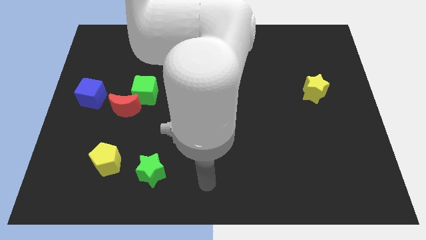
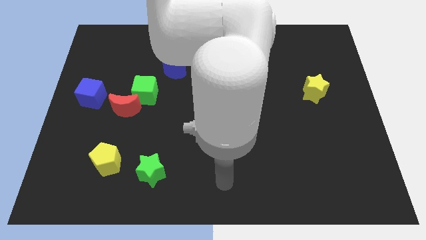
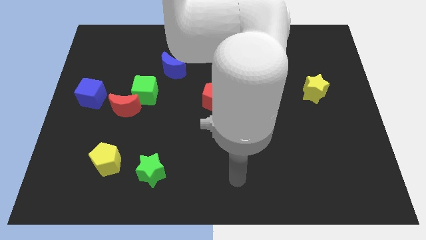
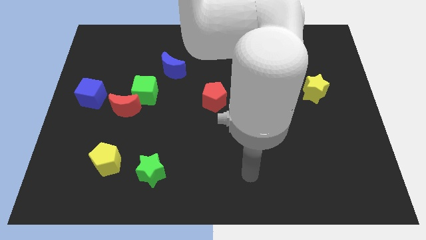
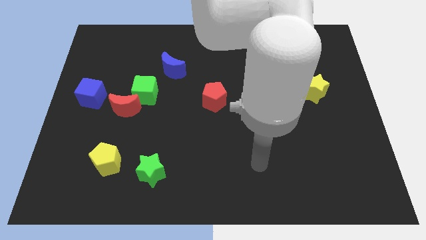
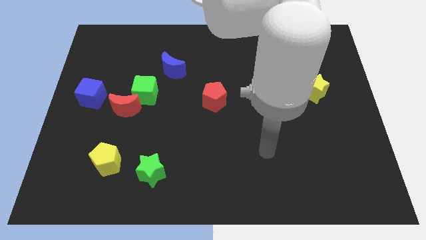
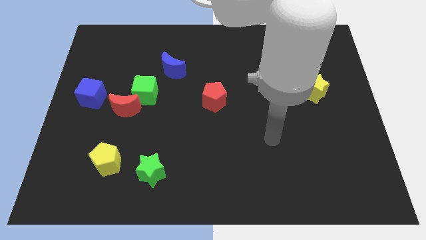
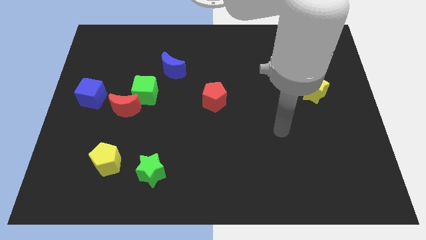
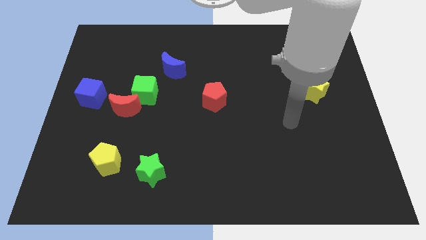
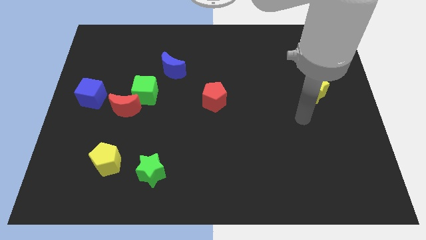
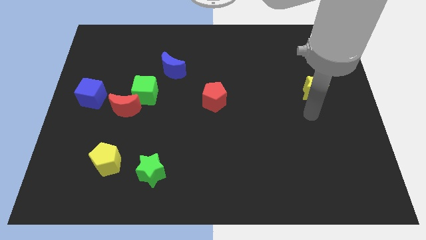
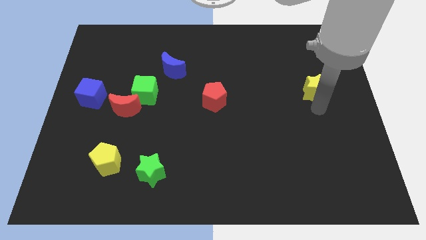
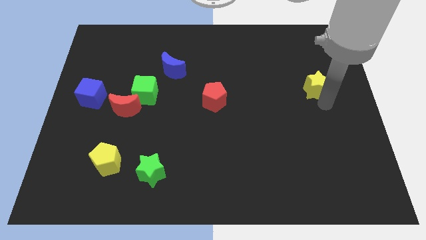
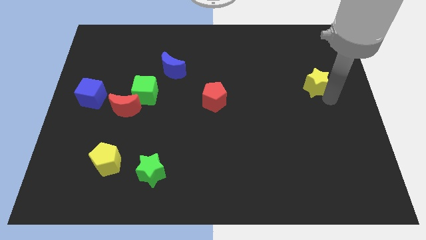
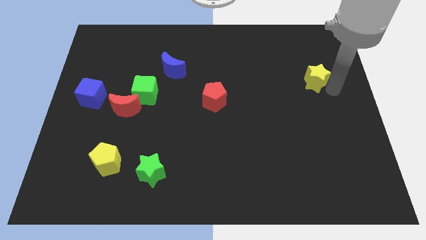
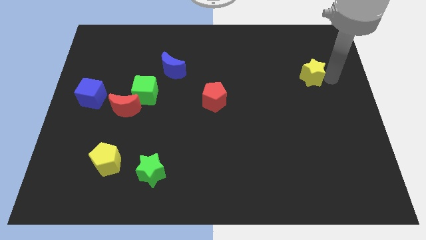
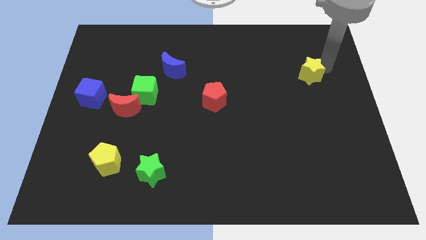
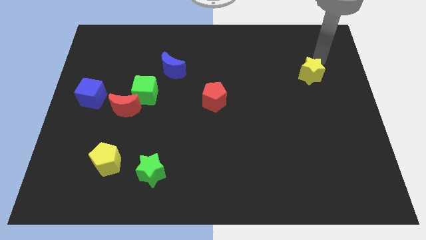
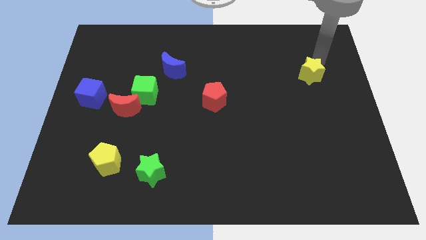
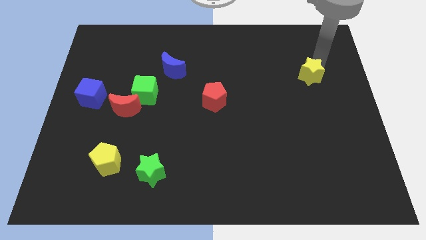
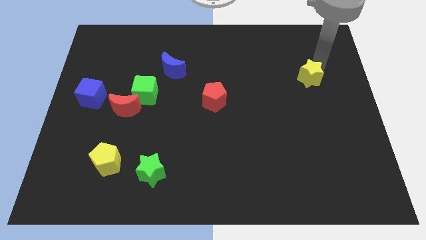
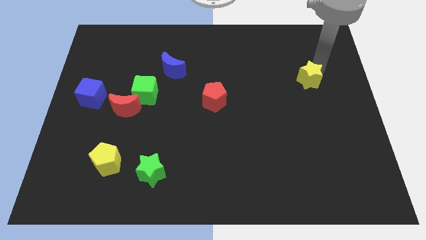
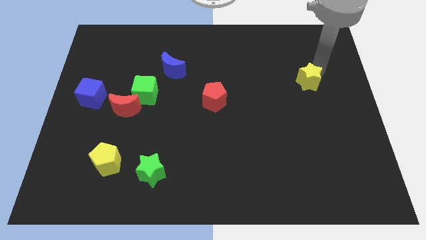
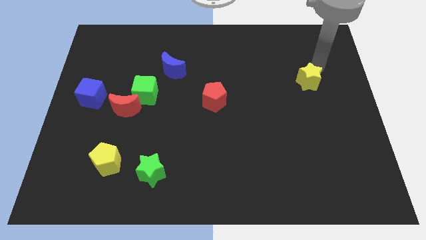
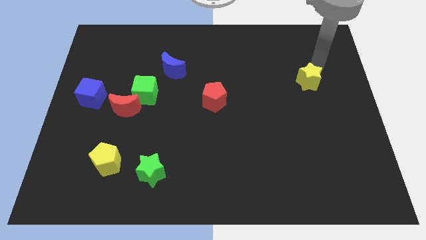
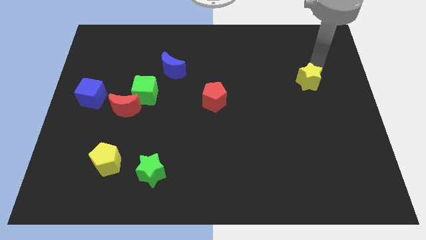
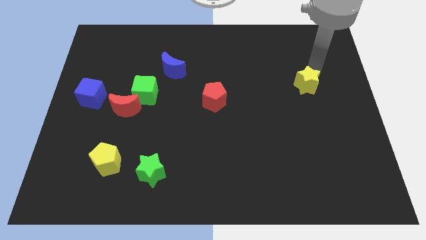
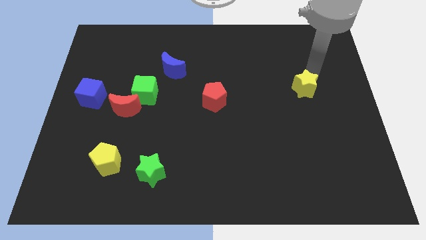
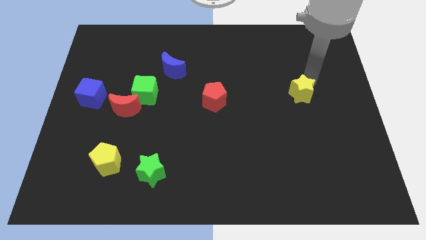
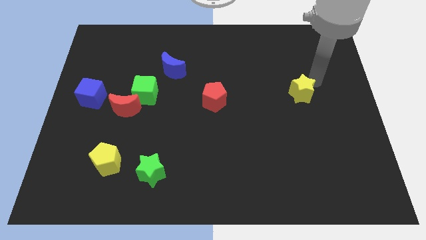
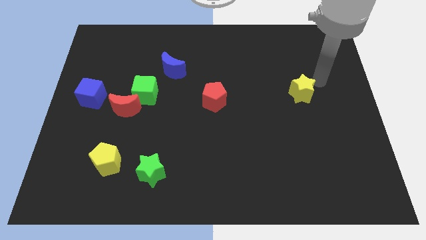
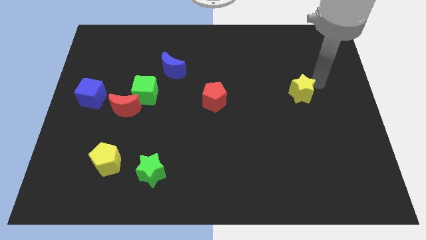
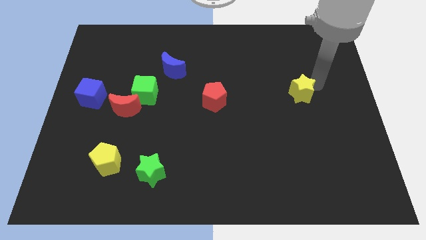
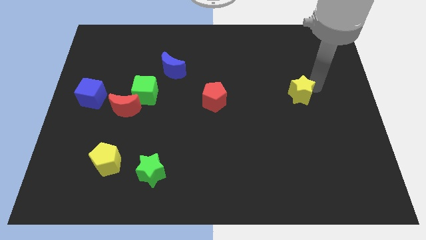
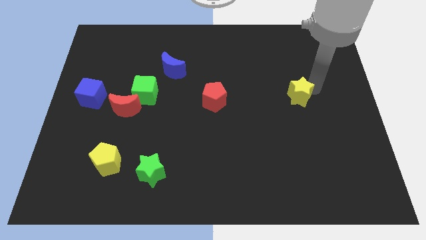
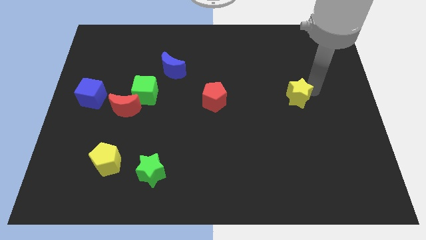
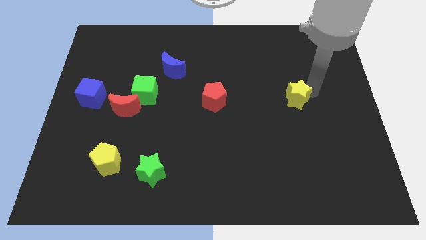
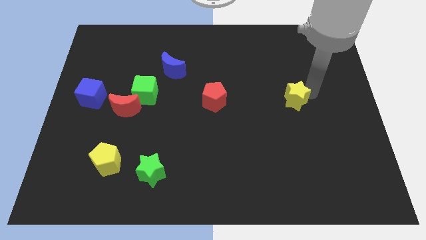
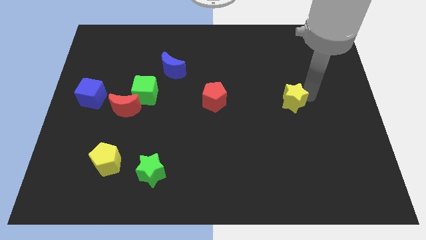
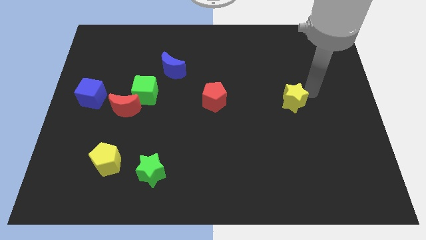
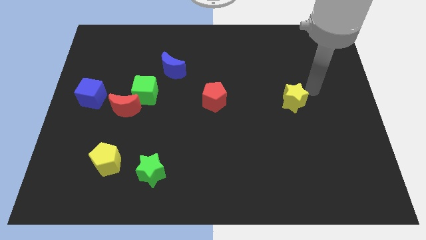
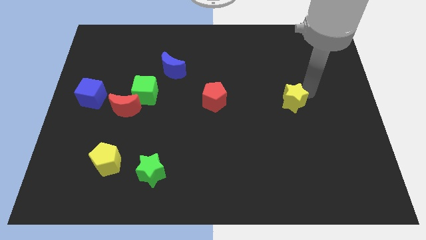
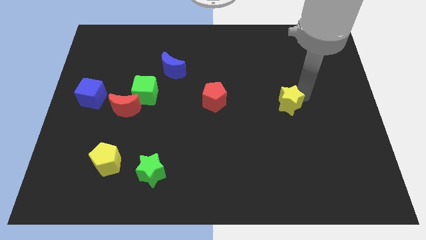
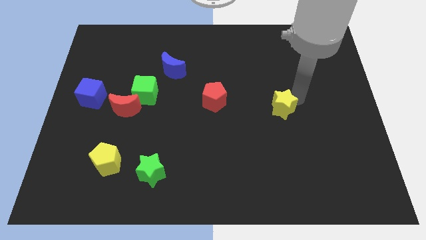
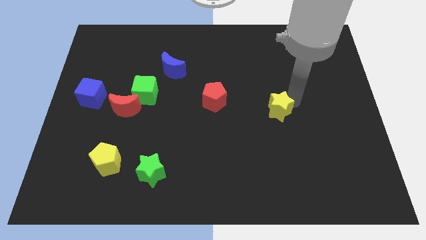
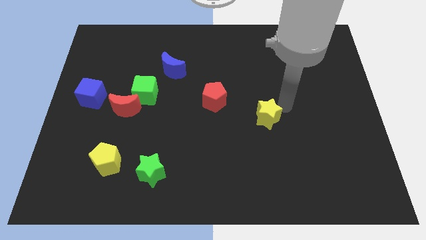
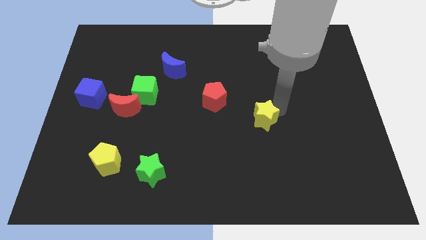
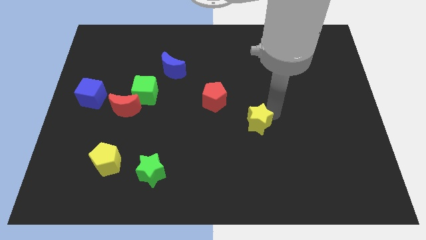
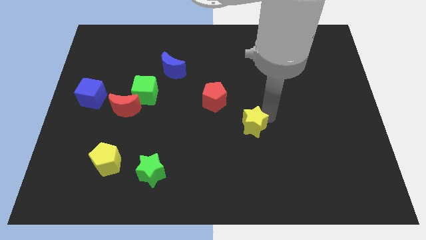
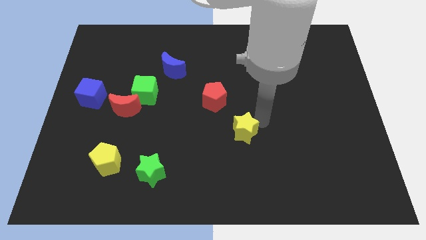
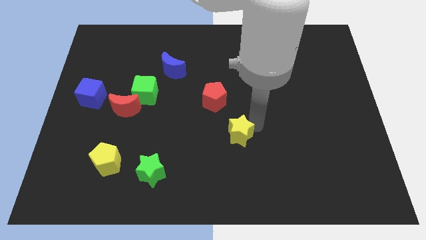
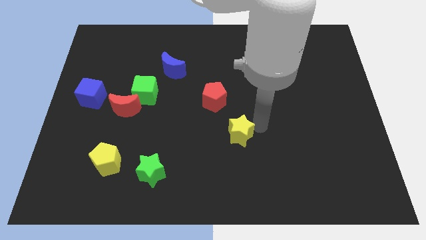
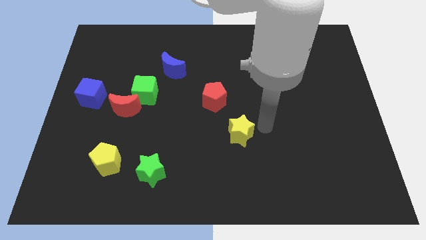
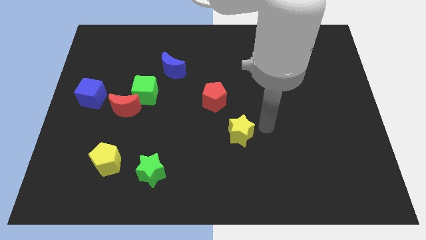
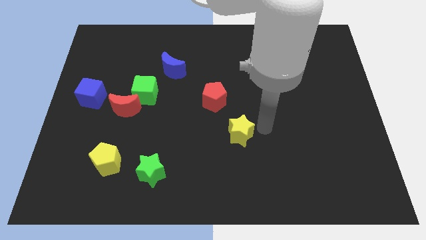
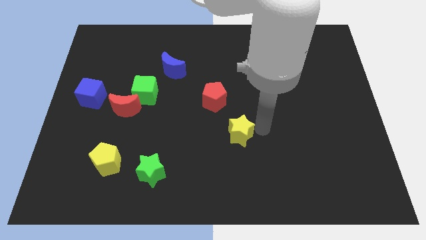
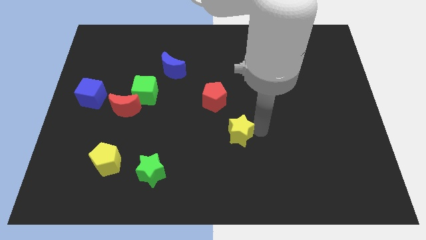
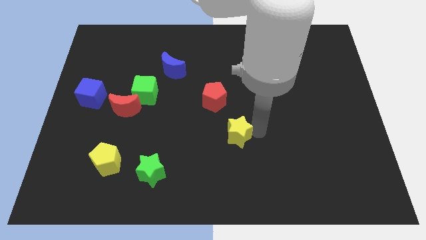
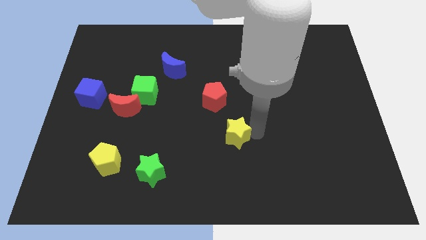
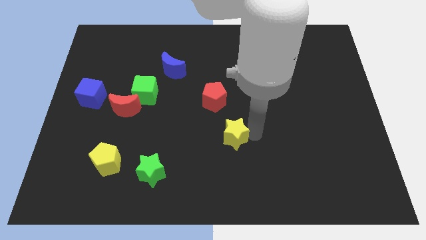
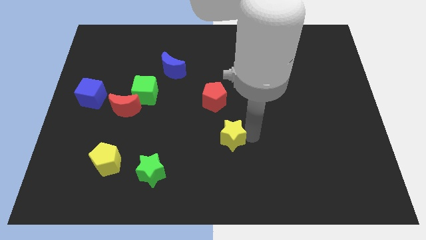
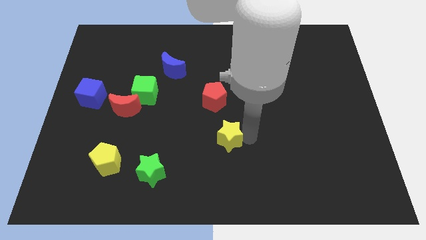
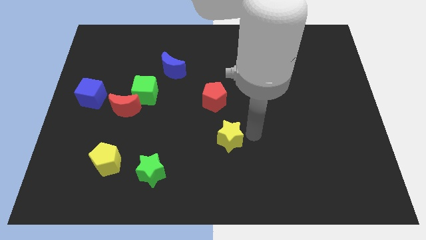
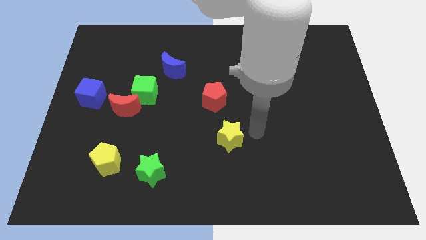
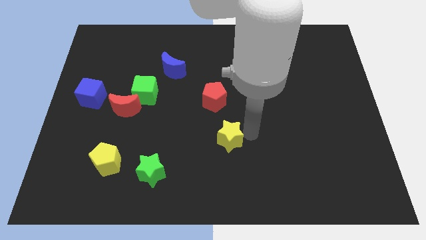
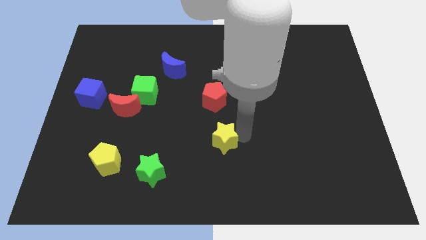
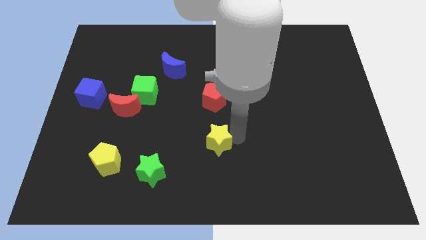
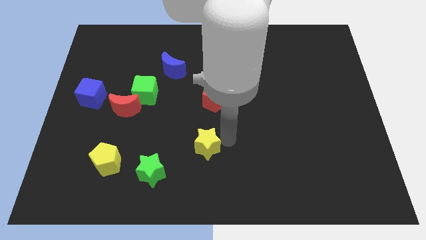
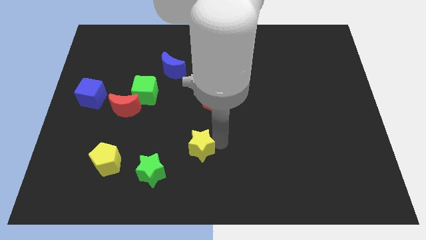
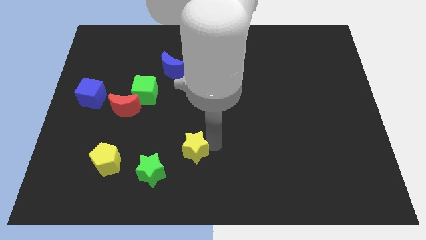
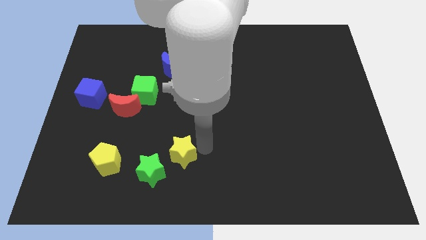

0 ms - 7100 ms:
move the yellow star just right of the yellow pentagon

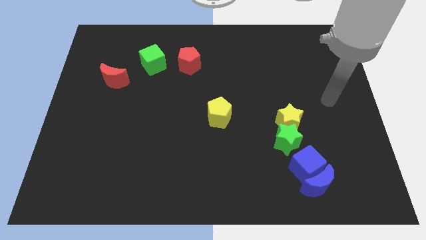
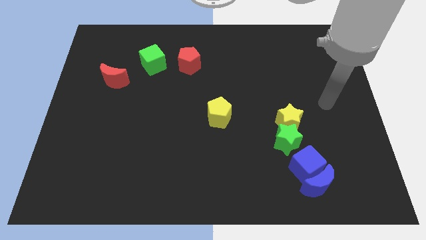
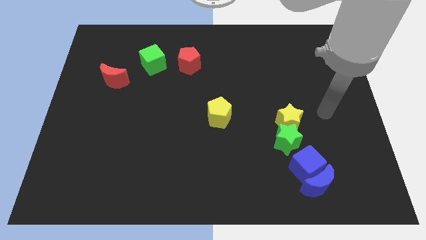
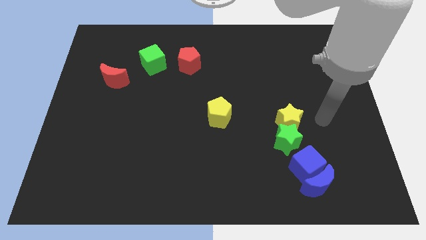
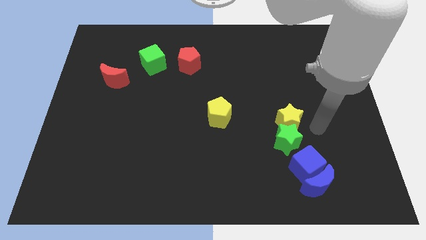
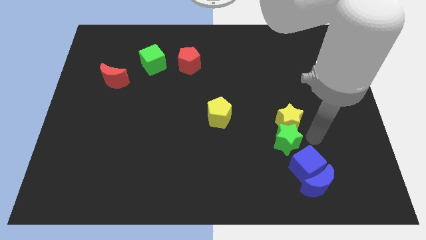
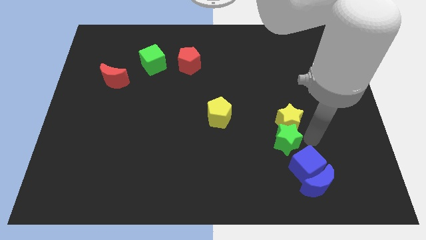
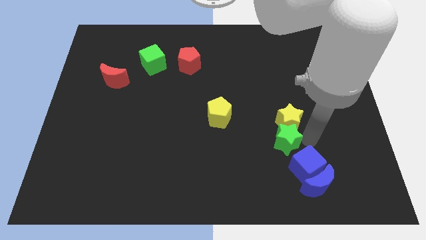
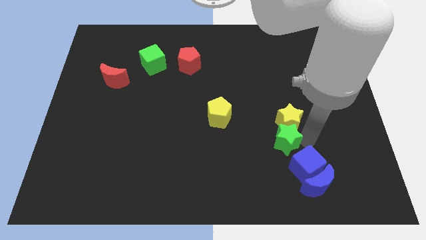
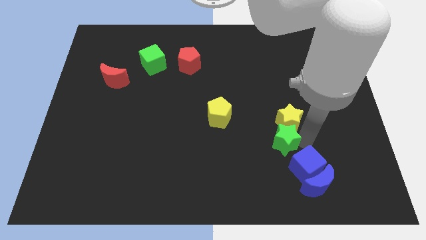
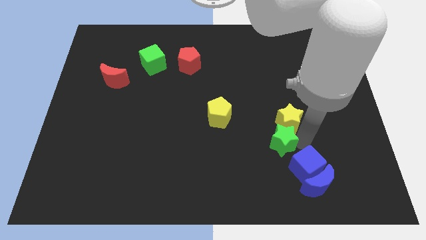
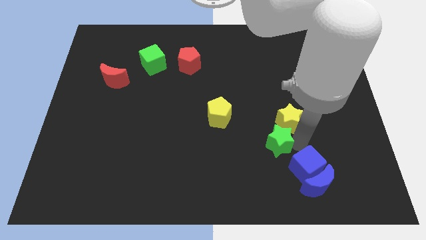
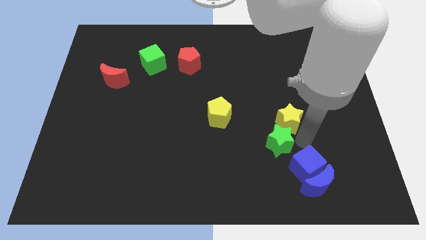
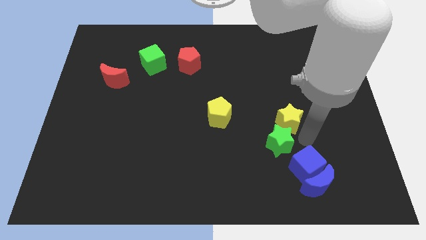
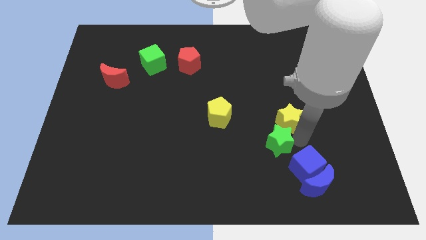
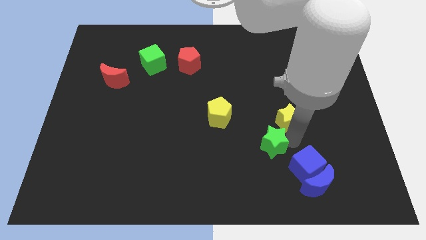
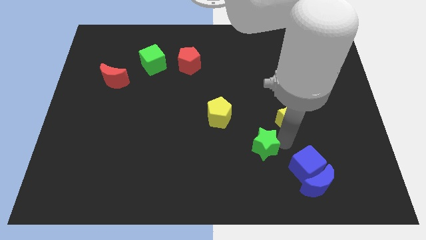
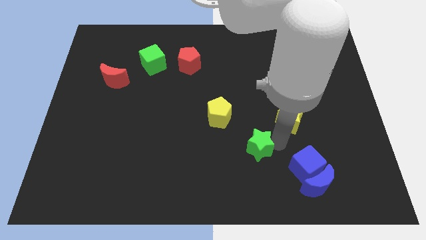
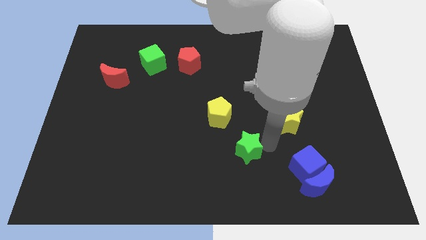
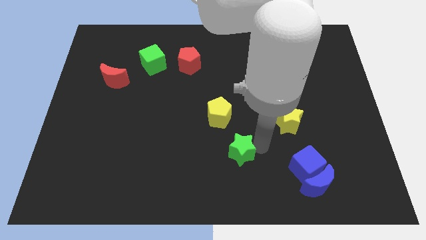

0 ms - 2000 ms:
move the green star below the yellow pentagon
